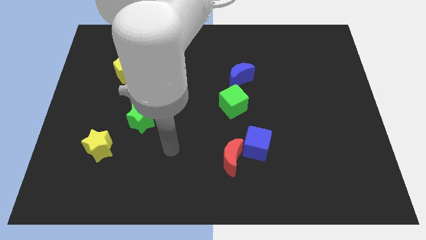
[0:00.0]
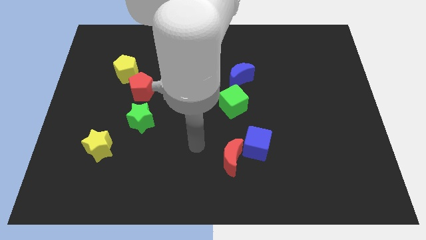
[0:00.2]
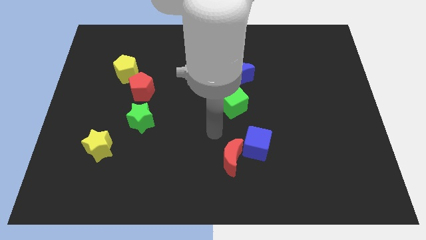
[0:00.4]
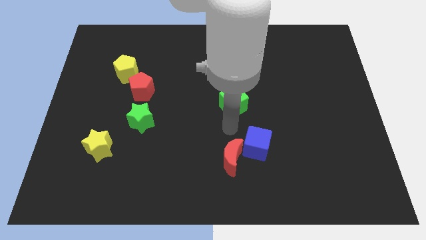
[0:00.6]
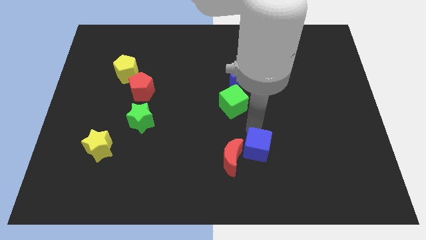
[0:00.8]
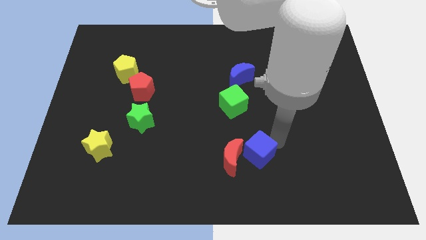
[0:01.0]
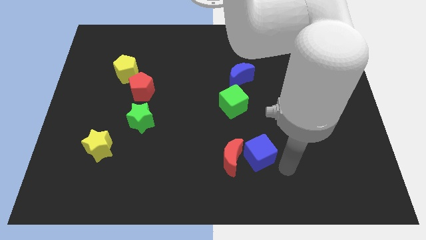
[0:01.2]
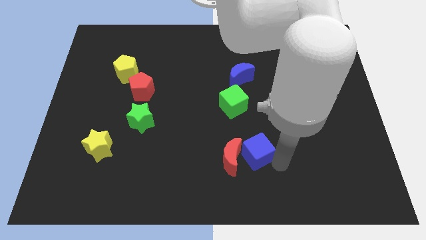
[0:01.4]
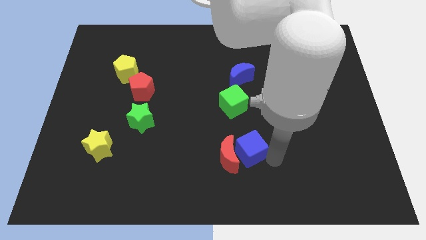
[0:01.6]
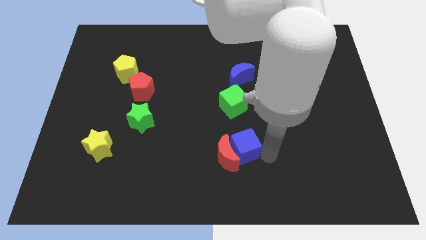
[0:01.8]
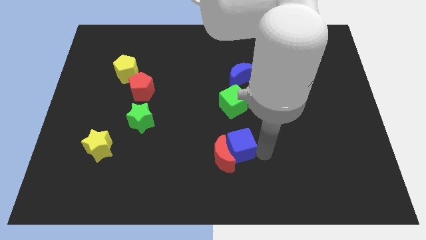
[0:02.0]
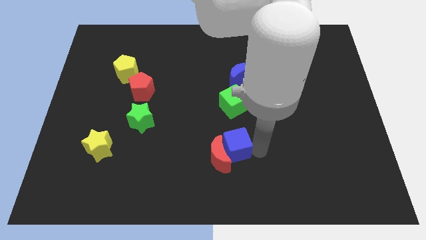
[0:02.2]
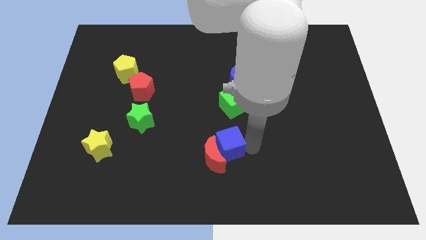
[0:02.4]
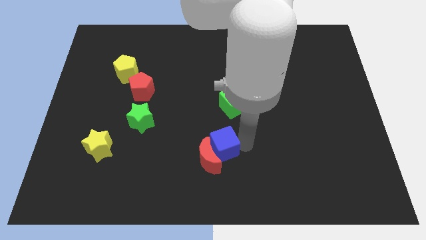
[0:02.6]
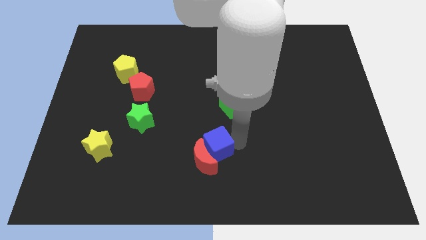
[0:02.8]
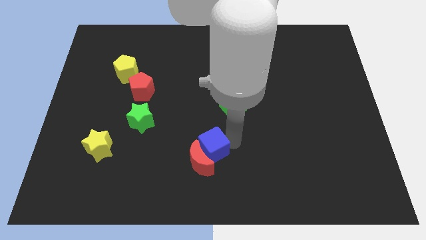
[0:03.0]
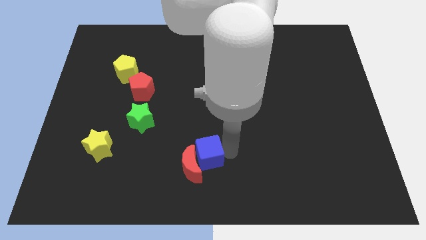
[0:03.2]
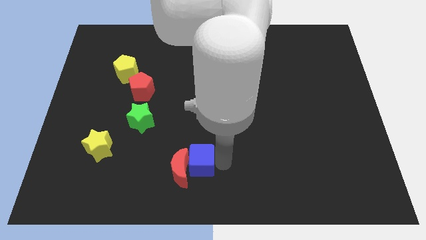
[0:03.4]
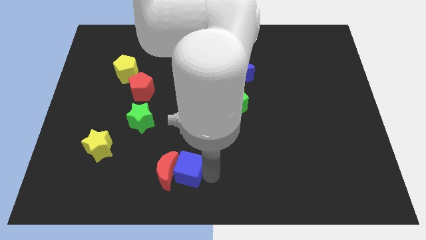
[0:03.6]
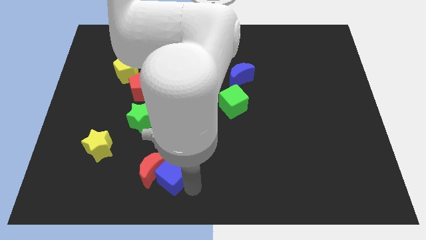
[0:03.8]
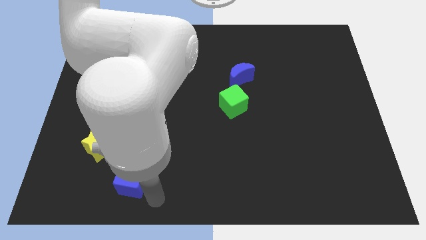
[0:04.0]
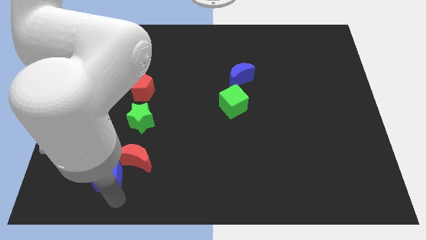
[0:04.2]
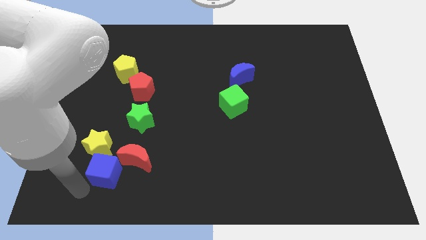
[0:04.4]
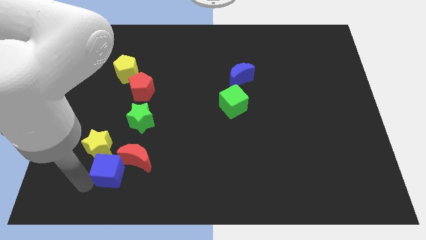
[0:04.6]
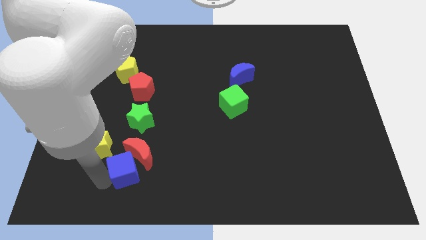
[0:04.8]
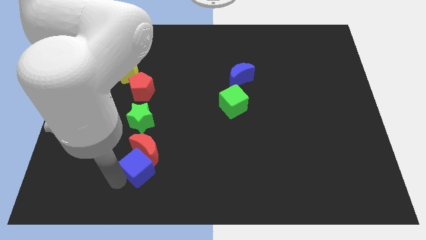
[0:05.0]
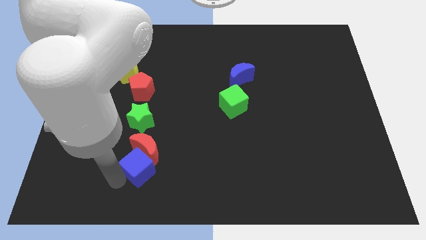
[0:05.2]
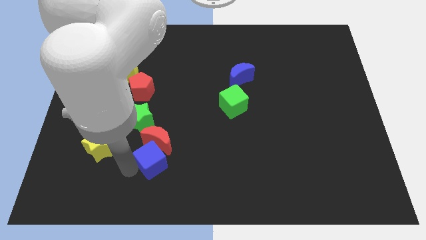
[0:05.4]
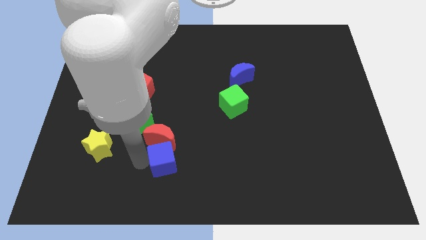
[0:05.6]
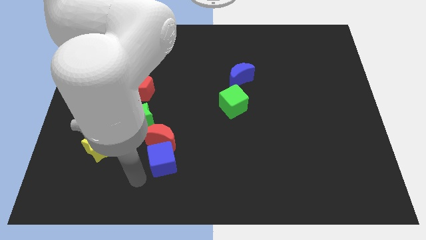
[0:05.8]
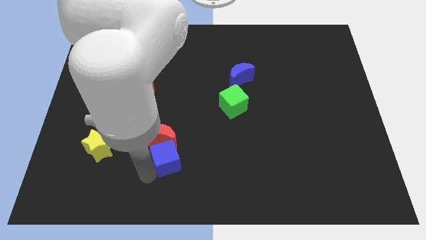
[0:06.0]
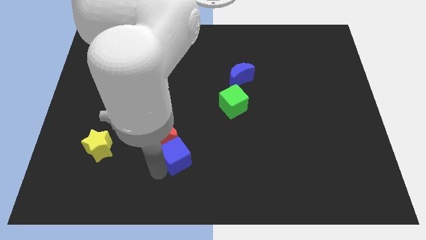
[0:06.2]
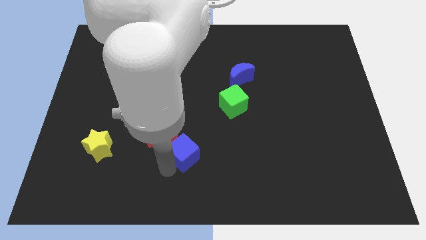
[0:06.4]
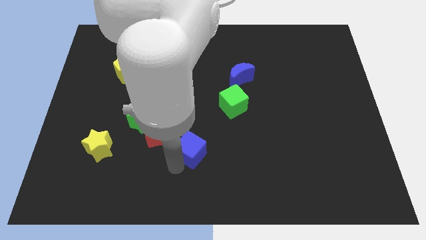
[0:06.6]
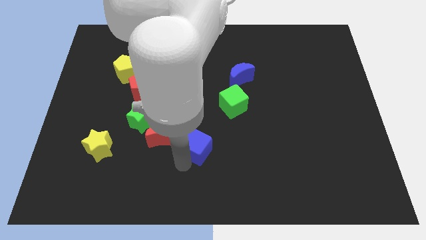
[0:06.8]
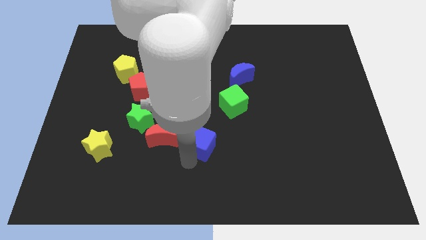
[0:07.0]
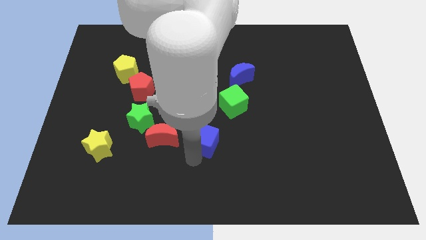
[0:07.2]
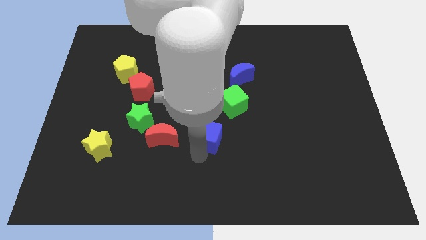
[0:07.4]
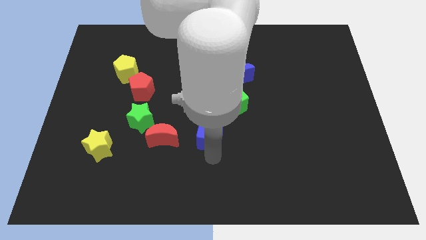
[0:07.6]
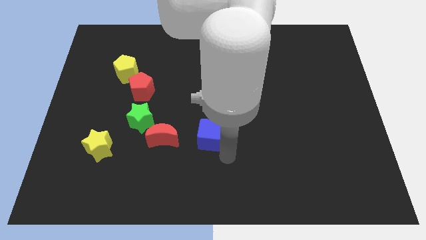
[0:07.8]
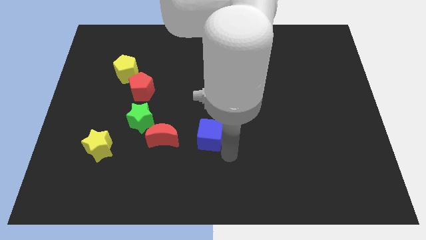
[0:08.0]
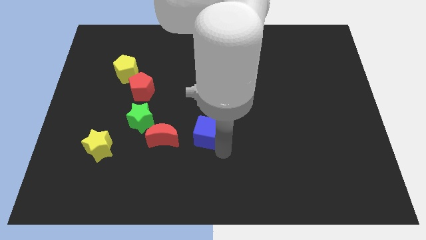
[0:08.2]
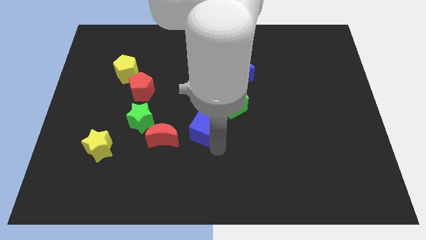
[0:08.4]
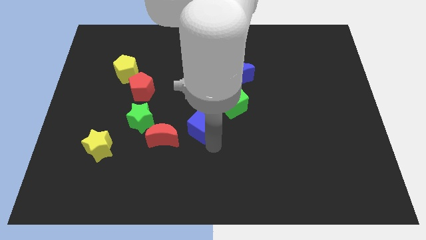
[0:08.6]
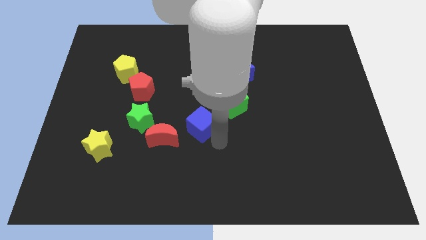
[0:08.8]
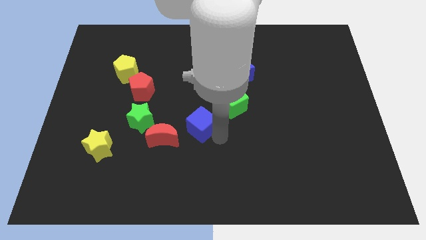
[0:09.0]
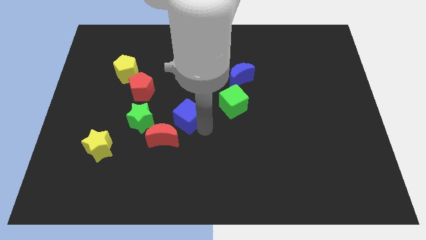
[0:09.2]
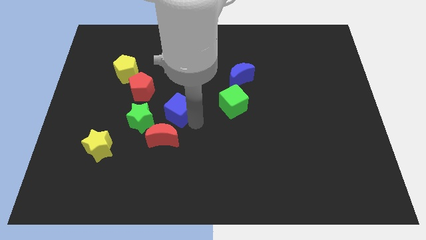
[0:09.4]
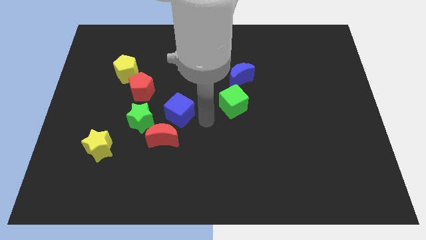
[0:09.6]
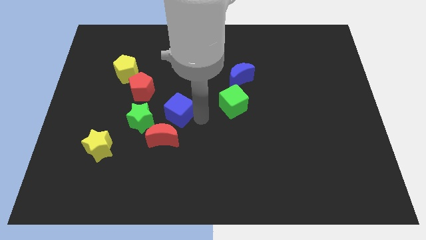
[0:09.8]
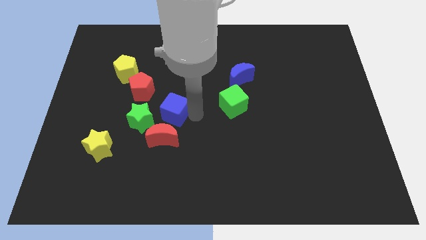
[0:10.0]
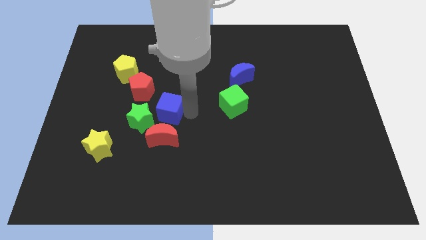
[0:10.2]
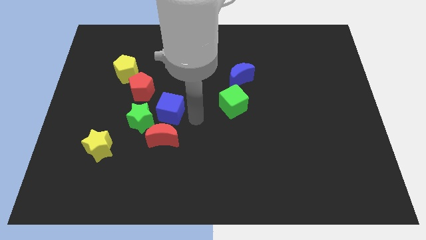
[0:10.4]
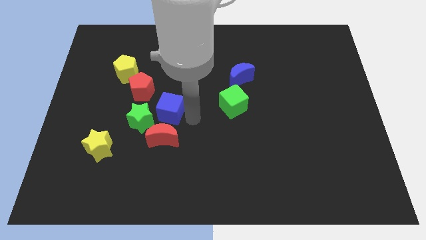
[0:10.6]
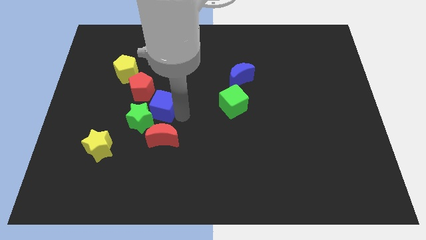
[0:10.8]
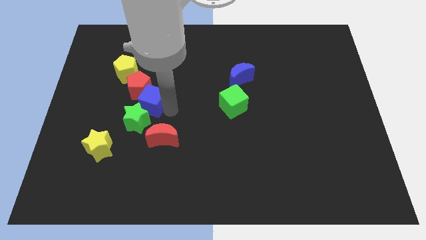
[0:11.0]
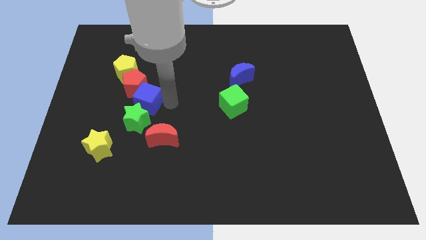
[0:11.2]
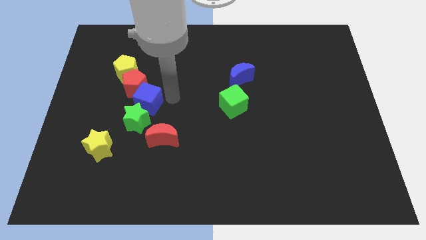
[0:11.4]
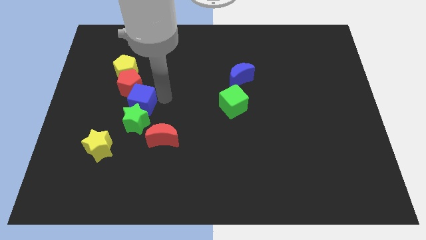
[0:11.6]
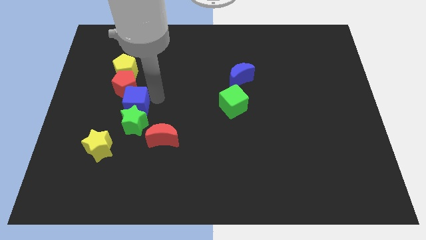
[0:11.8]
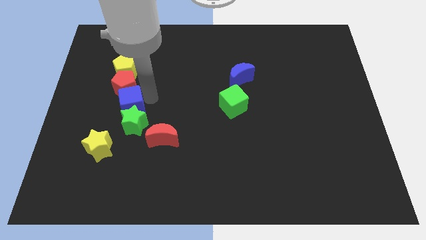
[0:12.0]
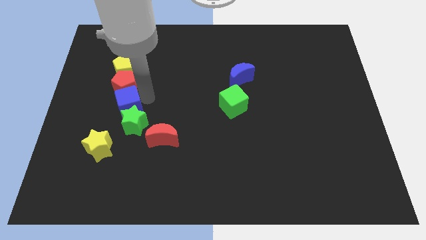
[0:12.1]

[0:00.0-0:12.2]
slide the blue cube to the top side of the yellow star

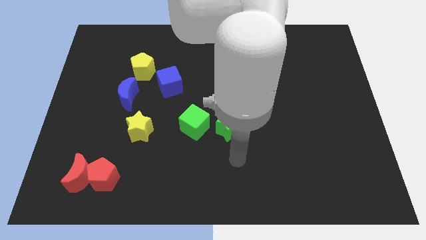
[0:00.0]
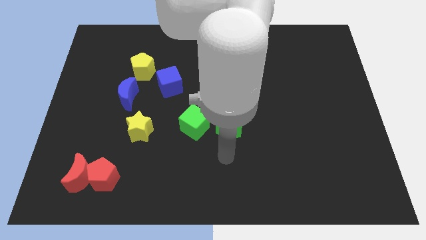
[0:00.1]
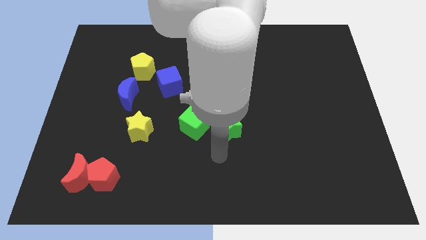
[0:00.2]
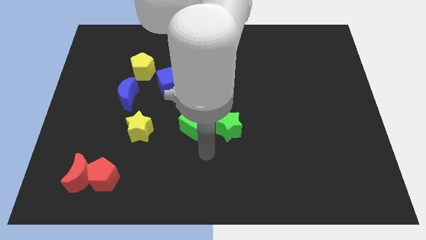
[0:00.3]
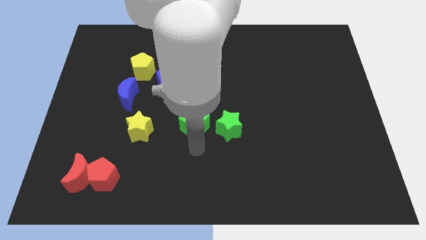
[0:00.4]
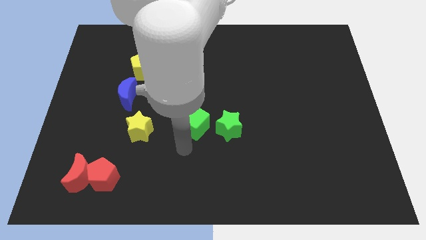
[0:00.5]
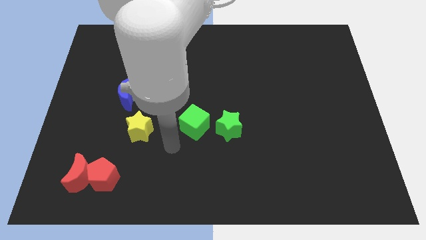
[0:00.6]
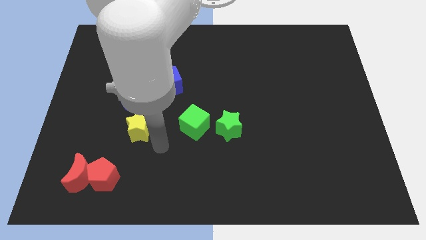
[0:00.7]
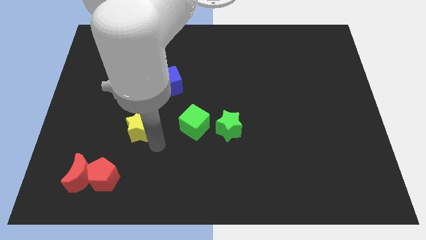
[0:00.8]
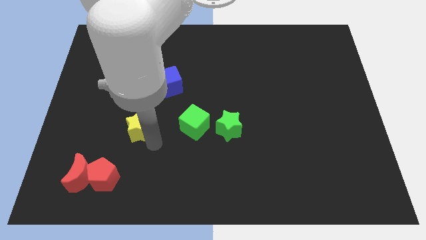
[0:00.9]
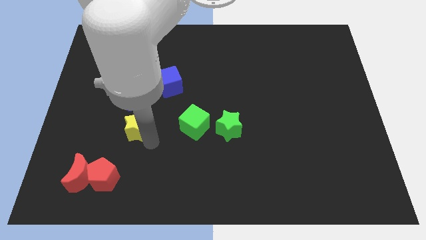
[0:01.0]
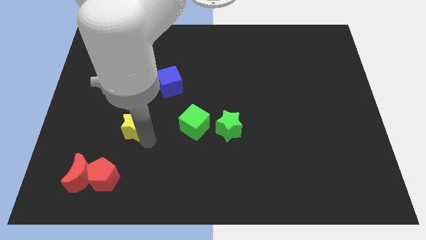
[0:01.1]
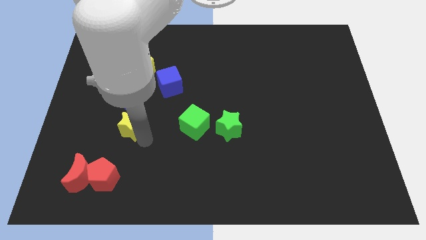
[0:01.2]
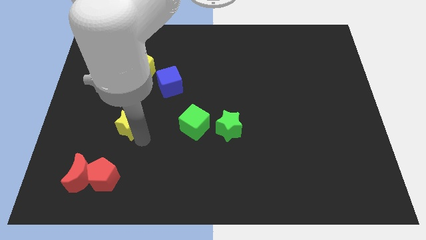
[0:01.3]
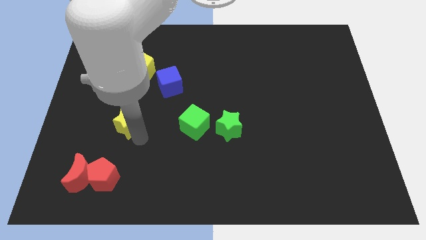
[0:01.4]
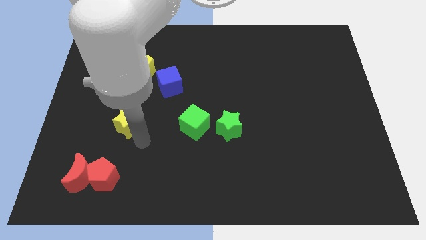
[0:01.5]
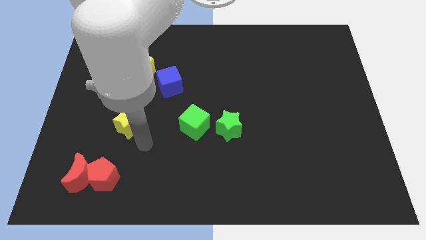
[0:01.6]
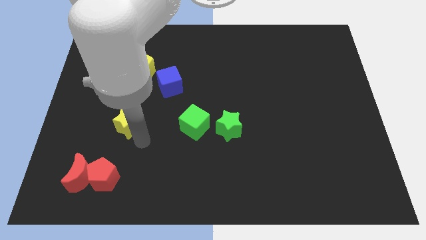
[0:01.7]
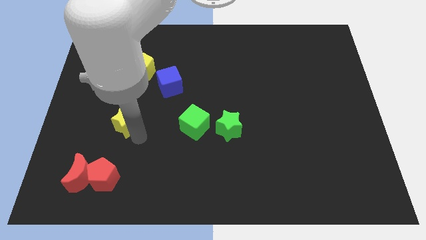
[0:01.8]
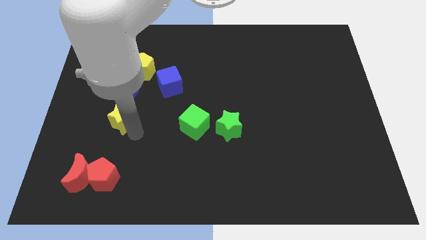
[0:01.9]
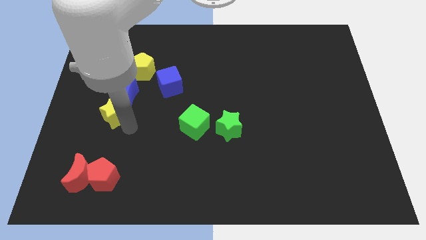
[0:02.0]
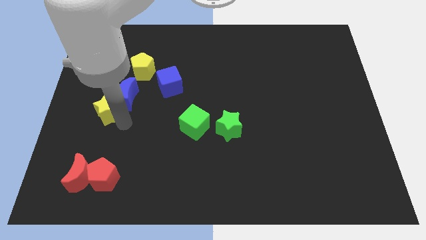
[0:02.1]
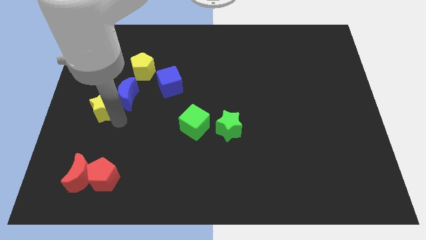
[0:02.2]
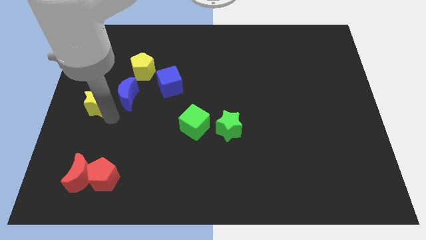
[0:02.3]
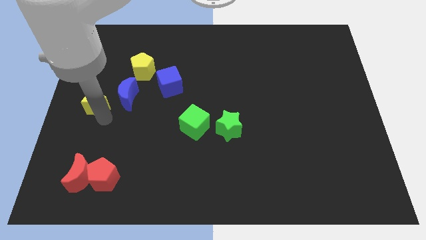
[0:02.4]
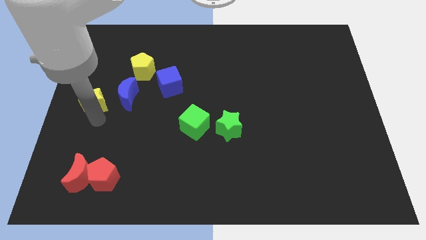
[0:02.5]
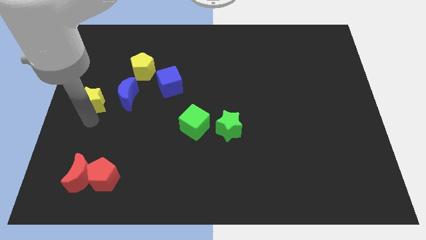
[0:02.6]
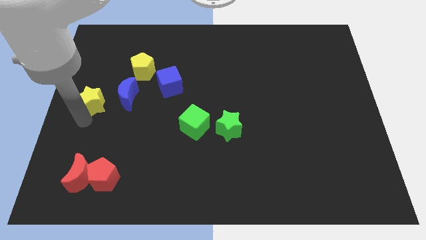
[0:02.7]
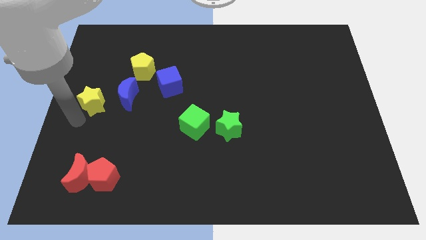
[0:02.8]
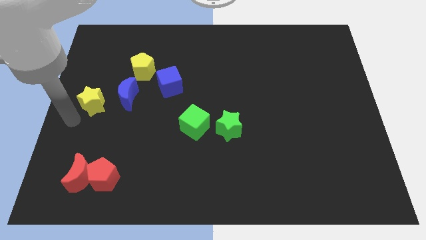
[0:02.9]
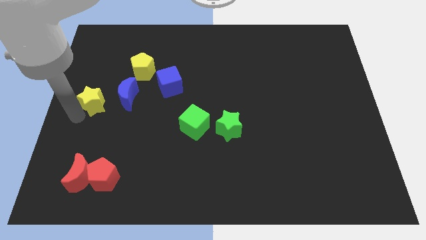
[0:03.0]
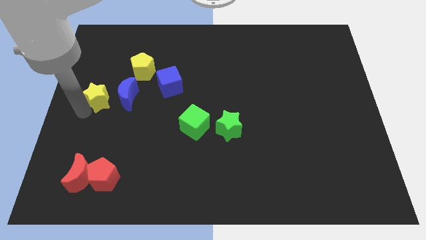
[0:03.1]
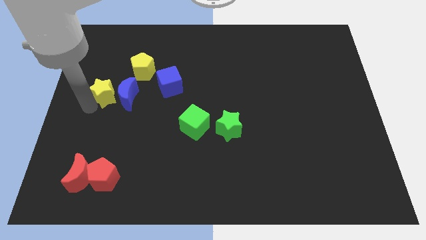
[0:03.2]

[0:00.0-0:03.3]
move the yellow star to the bottom left of the yellow pentagon
